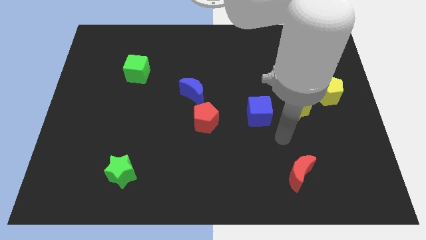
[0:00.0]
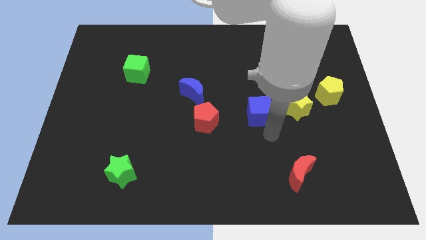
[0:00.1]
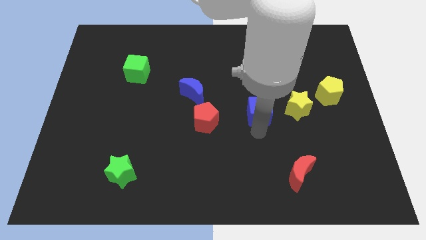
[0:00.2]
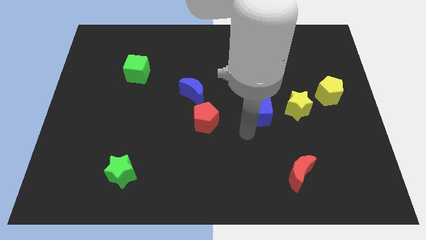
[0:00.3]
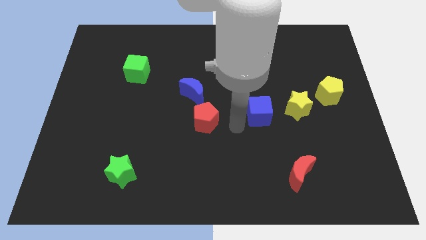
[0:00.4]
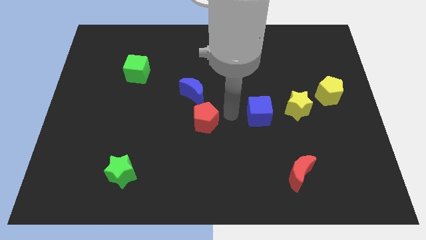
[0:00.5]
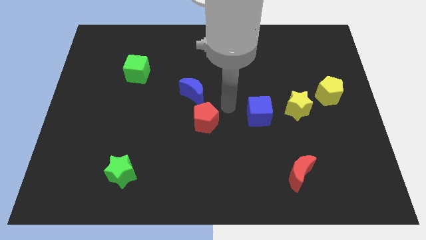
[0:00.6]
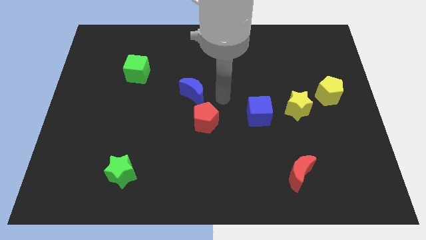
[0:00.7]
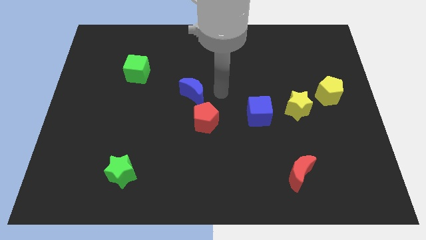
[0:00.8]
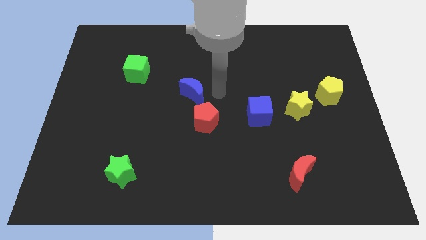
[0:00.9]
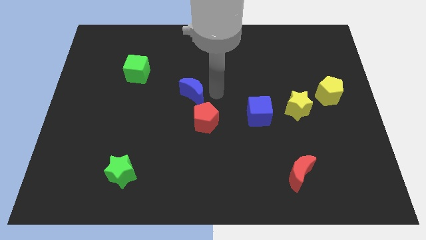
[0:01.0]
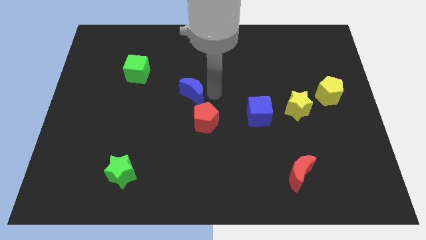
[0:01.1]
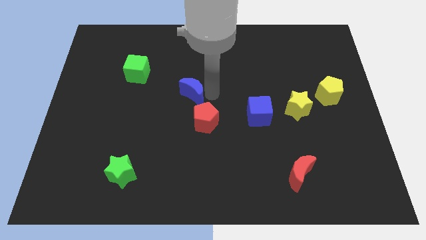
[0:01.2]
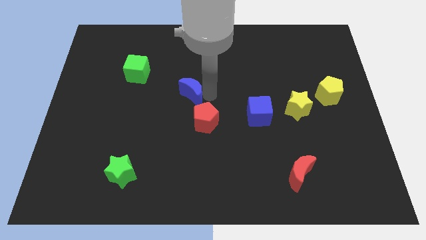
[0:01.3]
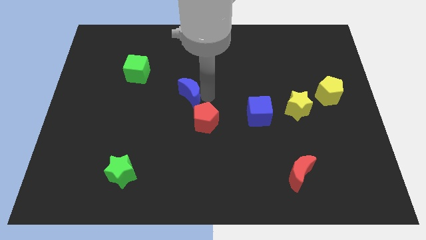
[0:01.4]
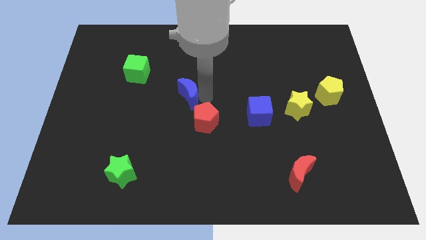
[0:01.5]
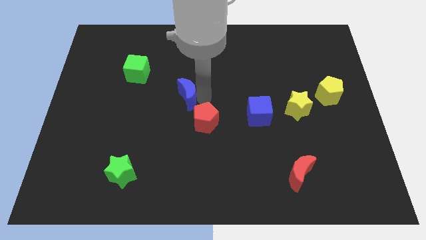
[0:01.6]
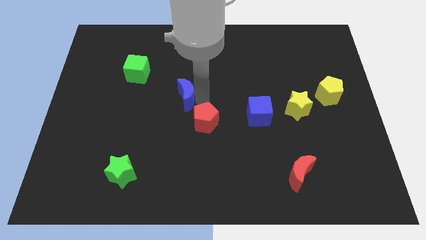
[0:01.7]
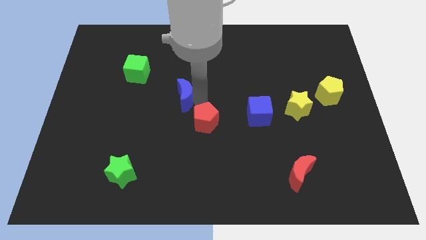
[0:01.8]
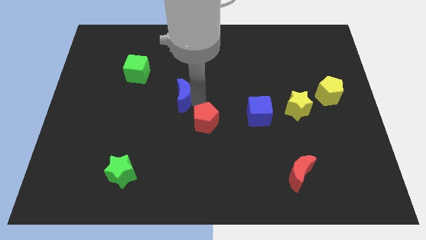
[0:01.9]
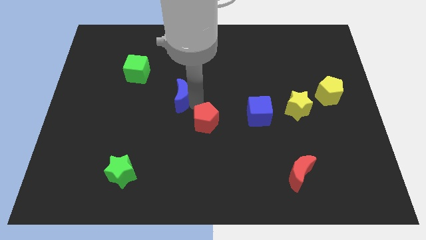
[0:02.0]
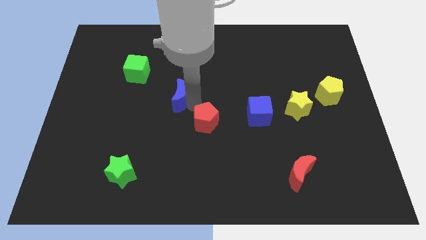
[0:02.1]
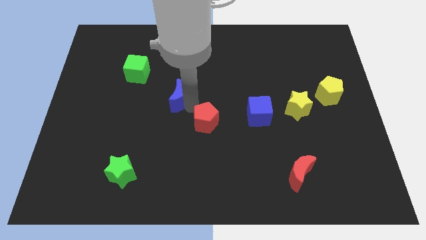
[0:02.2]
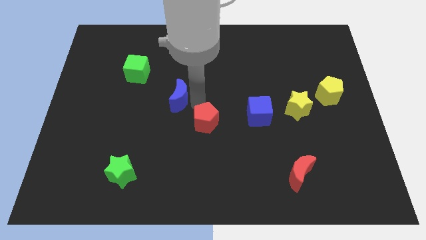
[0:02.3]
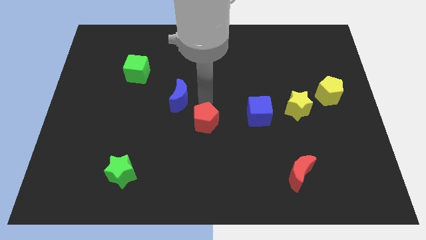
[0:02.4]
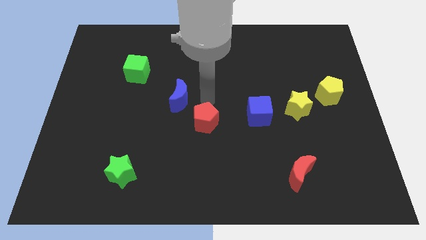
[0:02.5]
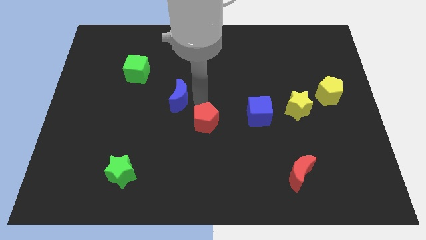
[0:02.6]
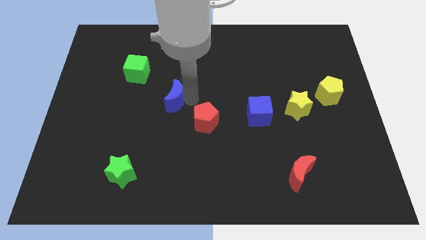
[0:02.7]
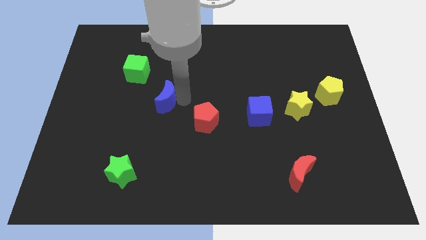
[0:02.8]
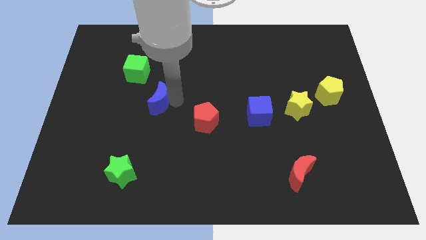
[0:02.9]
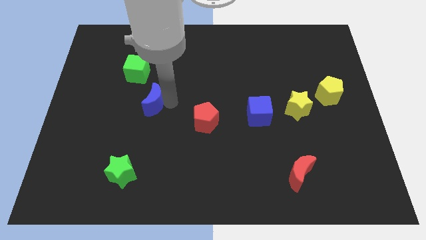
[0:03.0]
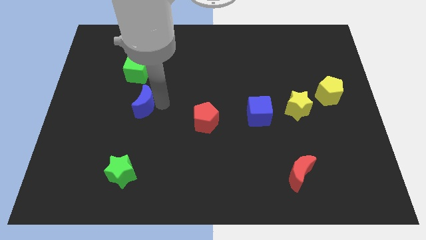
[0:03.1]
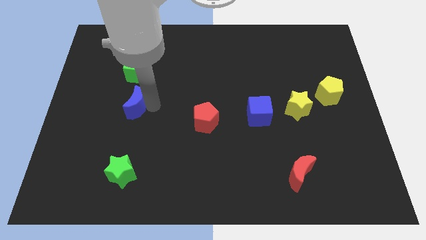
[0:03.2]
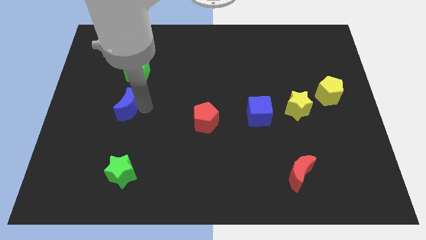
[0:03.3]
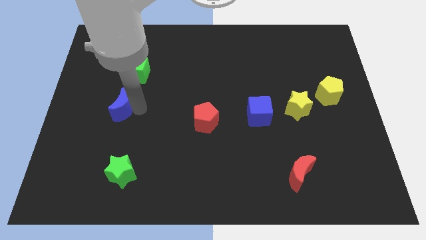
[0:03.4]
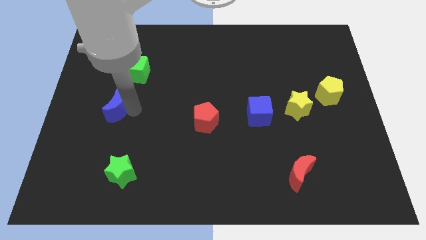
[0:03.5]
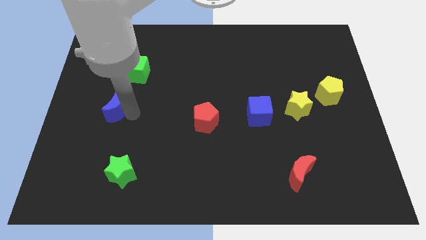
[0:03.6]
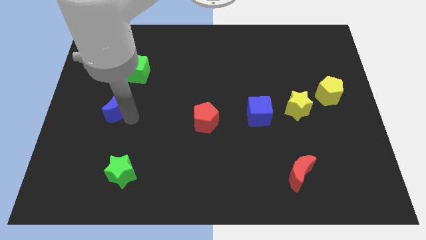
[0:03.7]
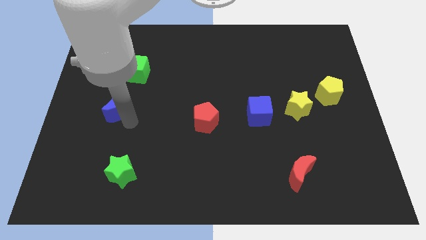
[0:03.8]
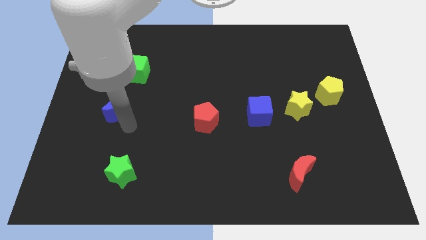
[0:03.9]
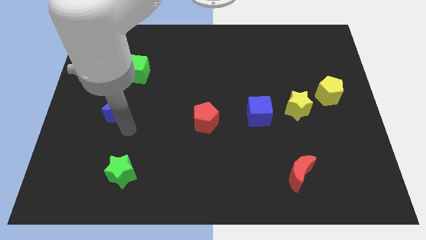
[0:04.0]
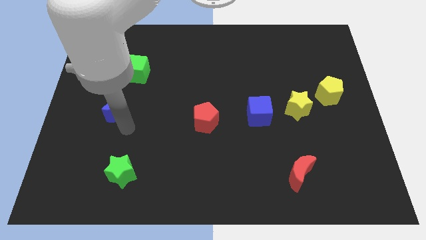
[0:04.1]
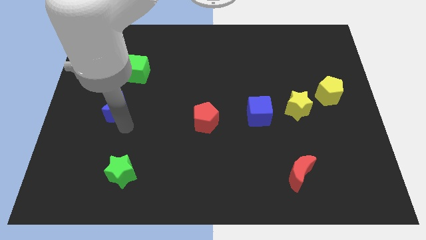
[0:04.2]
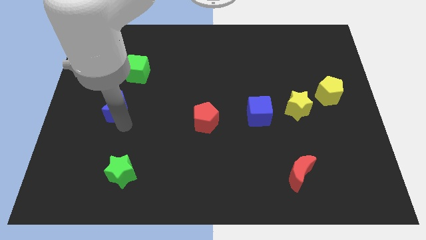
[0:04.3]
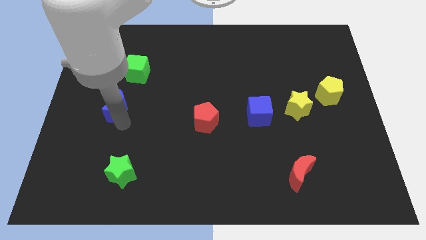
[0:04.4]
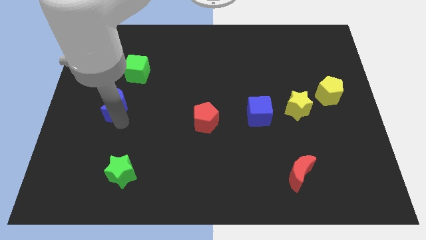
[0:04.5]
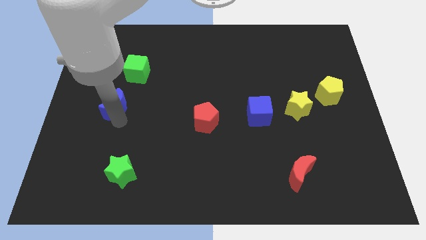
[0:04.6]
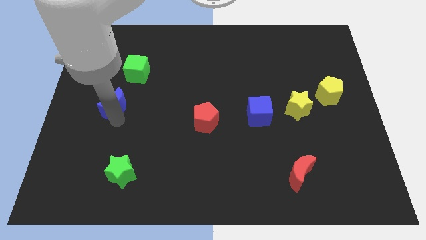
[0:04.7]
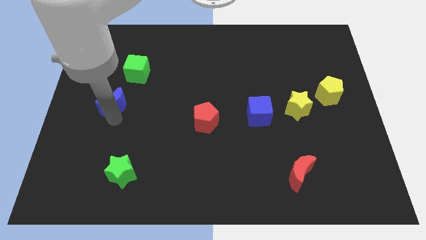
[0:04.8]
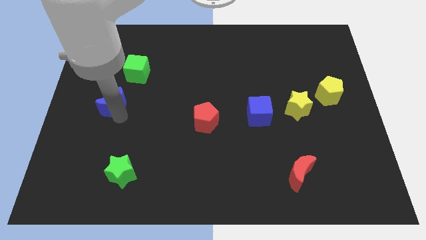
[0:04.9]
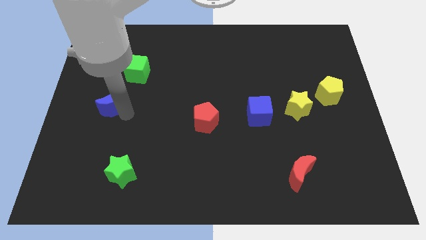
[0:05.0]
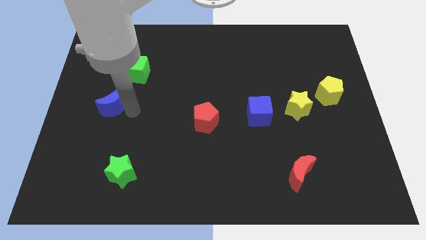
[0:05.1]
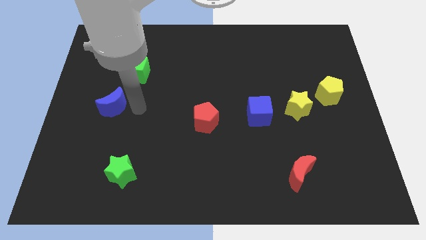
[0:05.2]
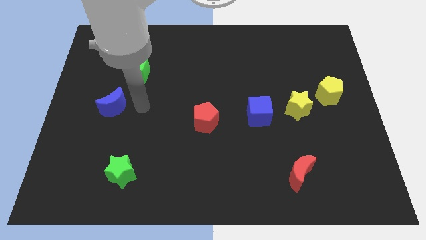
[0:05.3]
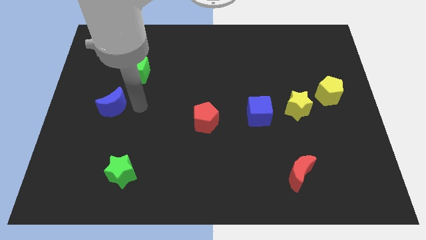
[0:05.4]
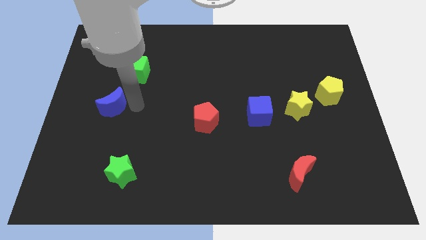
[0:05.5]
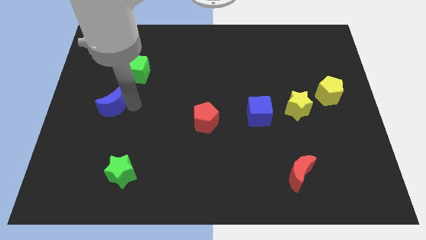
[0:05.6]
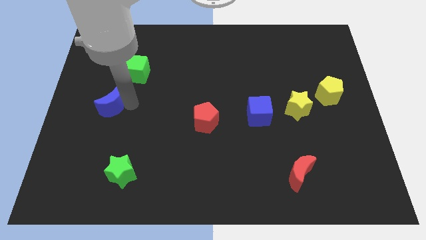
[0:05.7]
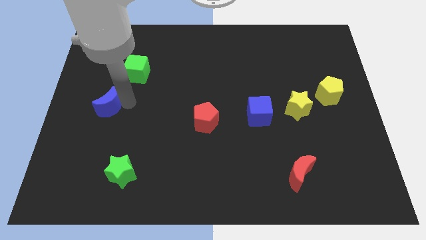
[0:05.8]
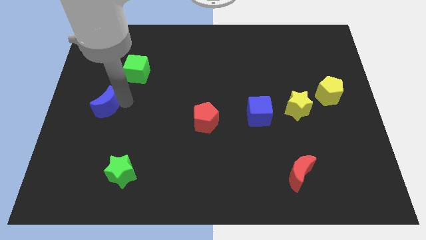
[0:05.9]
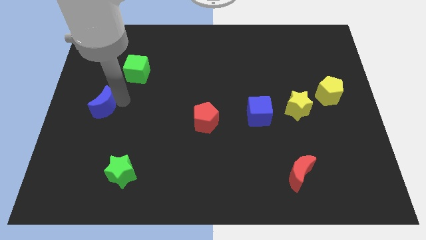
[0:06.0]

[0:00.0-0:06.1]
move the blue moon to the left side of the board
